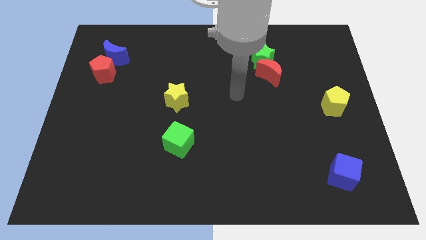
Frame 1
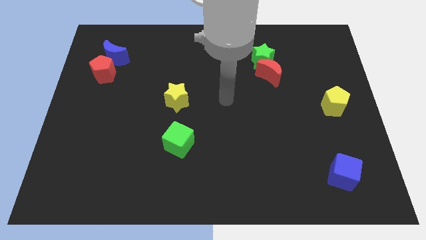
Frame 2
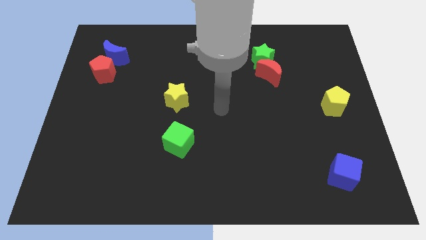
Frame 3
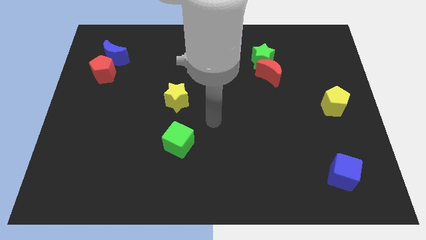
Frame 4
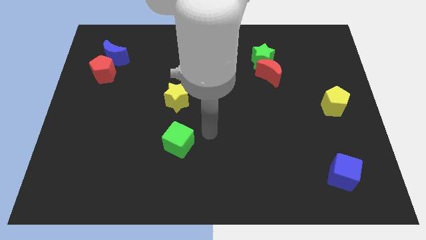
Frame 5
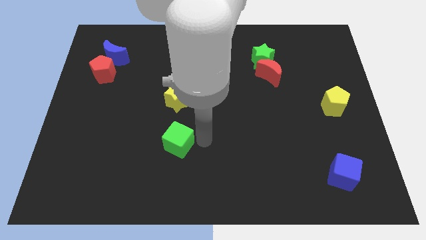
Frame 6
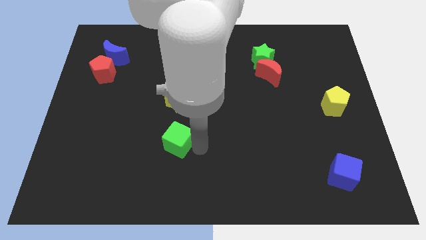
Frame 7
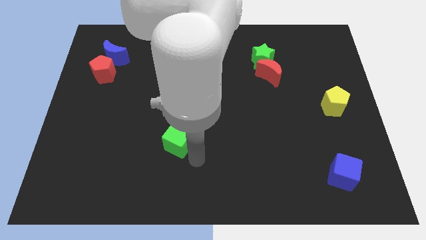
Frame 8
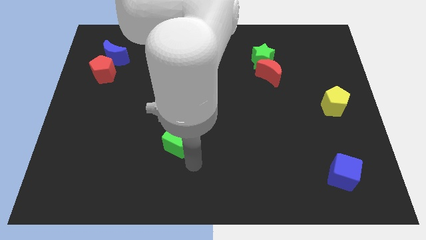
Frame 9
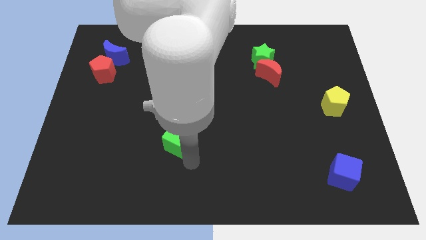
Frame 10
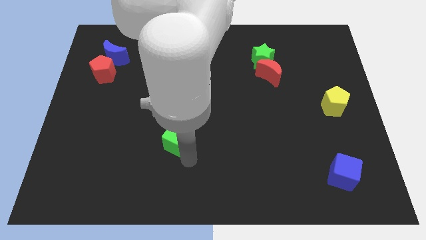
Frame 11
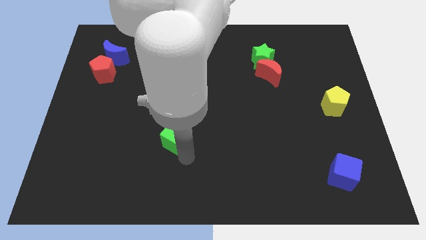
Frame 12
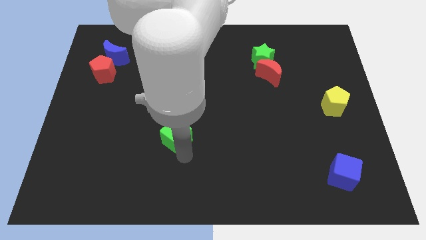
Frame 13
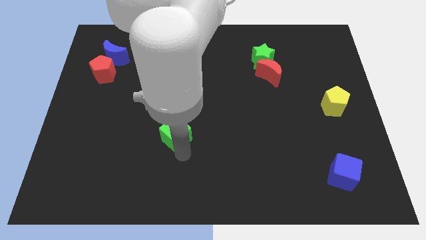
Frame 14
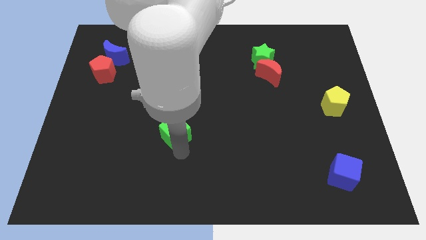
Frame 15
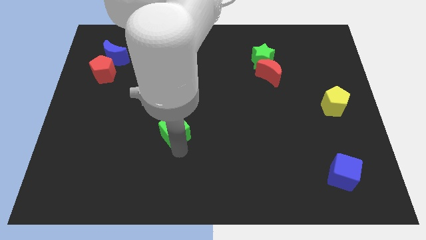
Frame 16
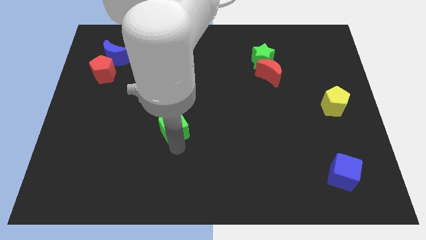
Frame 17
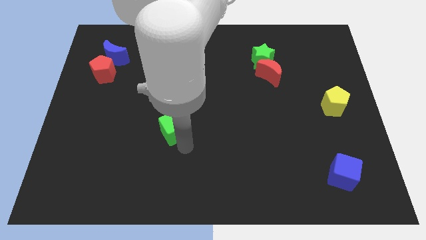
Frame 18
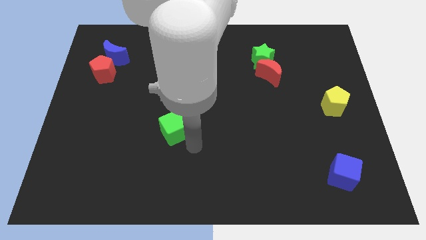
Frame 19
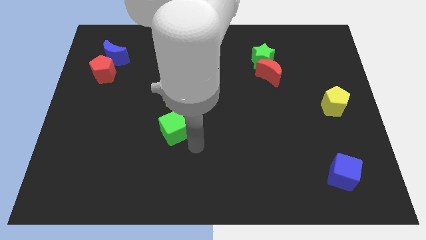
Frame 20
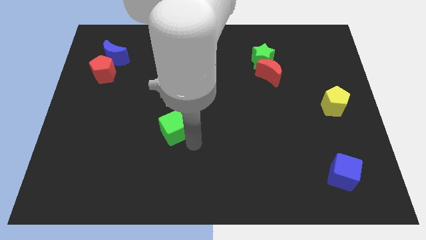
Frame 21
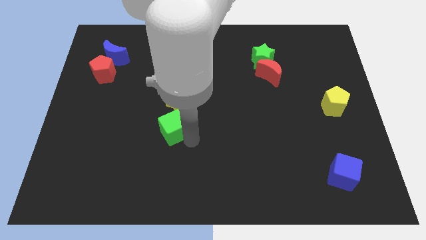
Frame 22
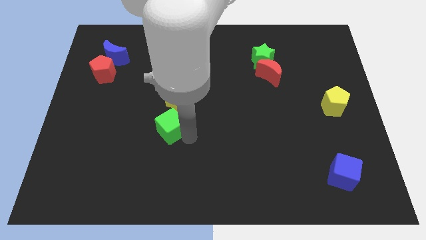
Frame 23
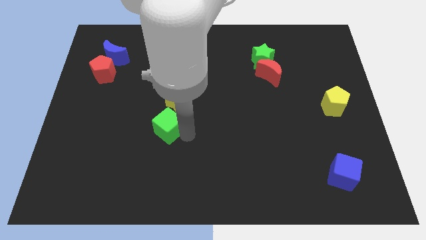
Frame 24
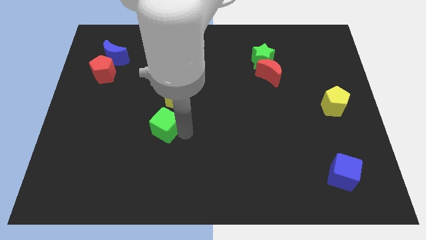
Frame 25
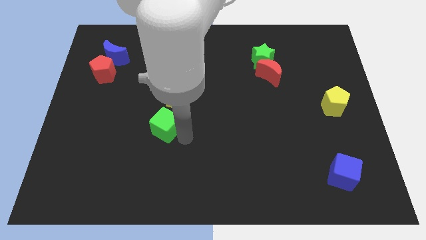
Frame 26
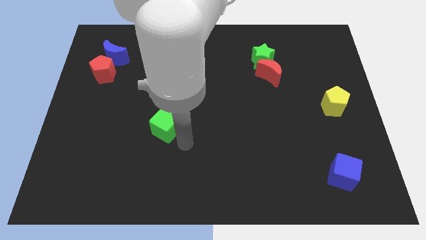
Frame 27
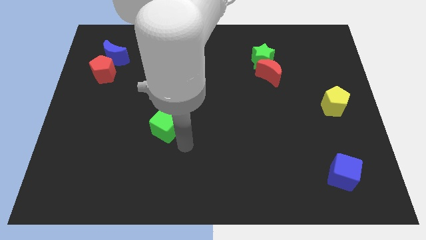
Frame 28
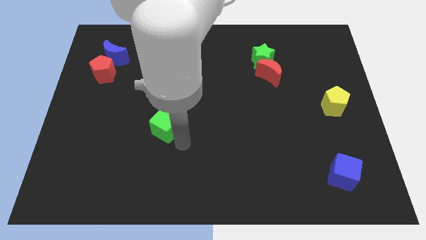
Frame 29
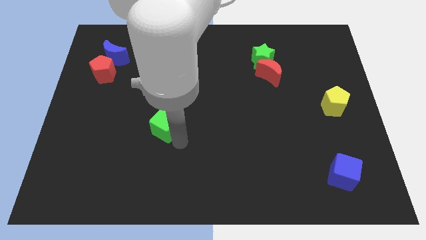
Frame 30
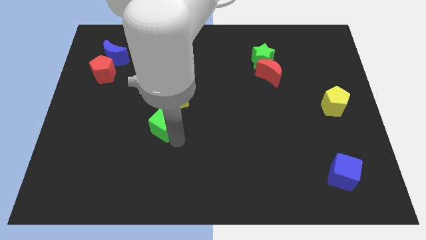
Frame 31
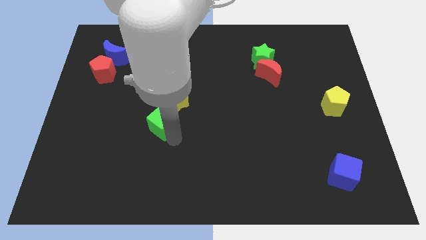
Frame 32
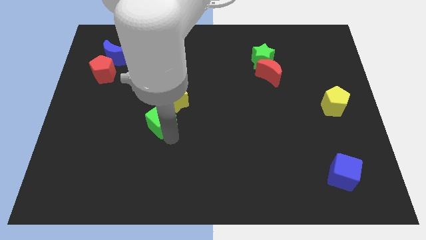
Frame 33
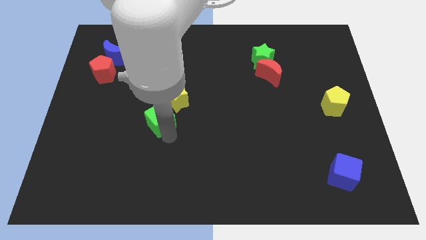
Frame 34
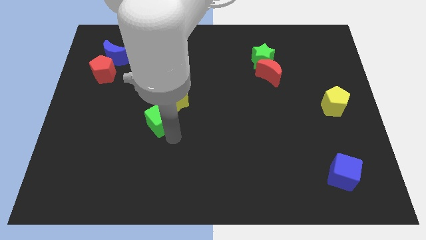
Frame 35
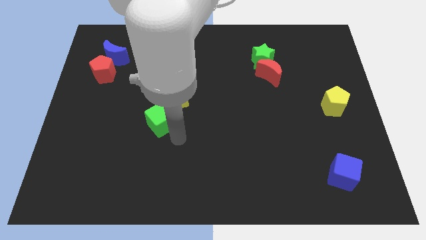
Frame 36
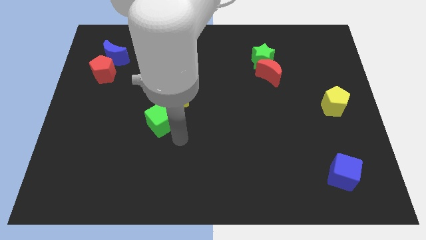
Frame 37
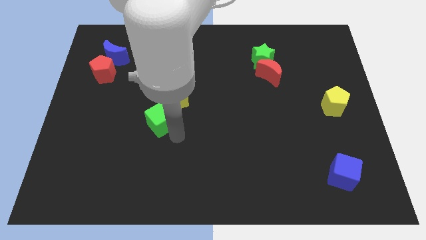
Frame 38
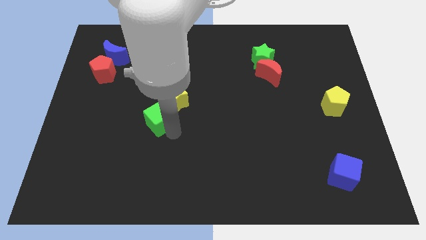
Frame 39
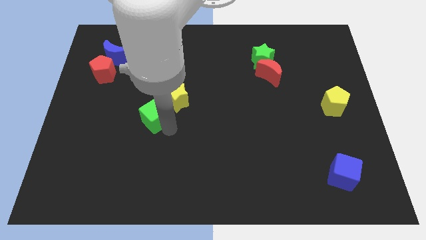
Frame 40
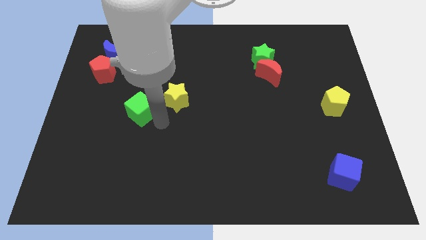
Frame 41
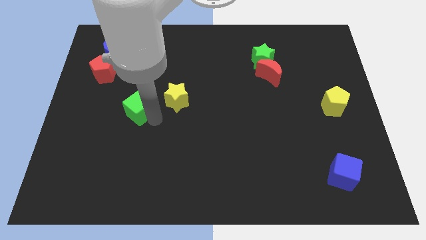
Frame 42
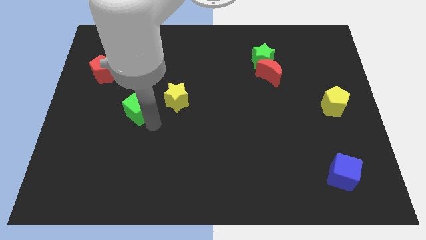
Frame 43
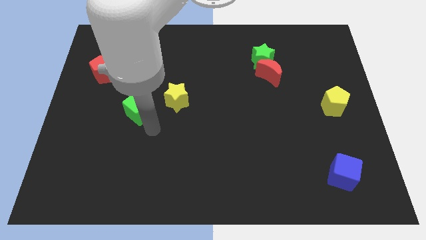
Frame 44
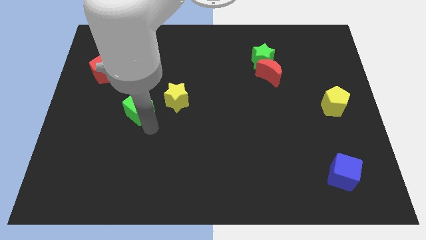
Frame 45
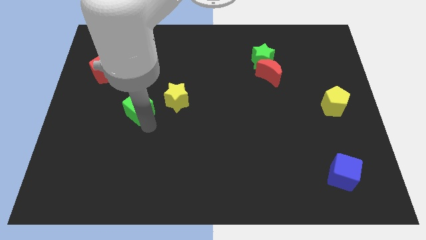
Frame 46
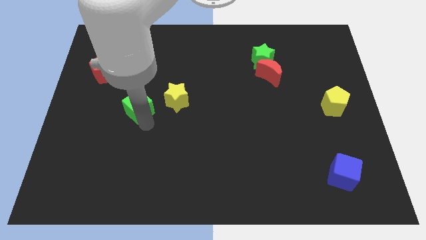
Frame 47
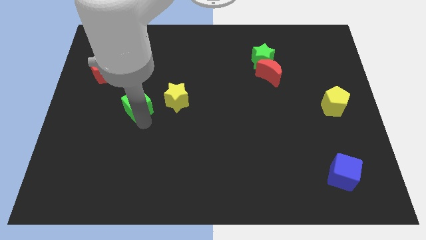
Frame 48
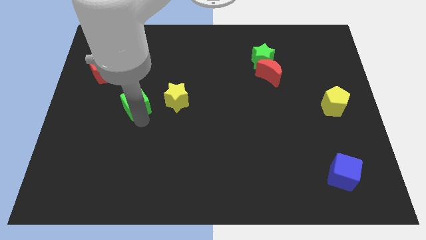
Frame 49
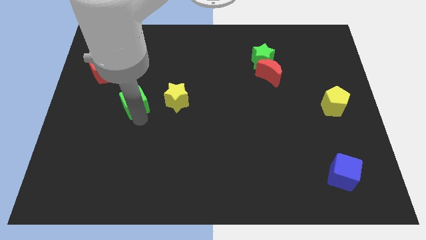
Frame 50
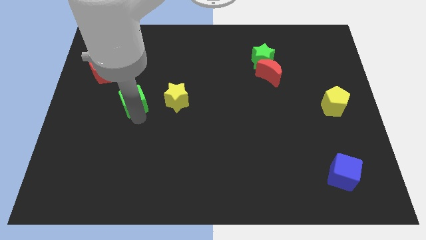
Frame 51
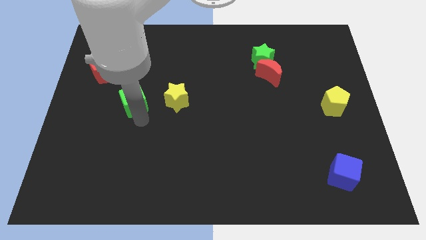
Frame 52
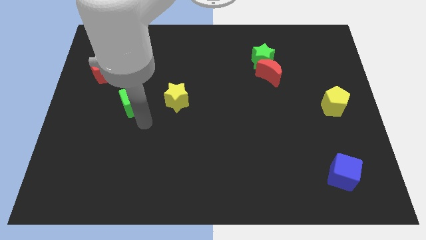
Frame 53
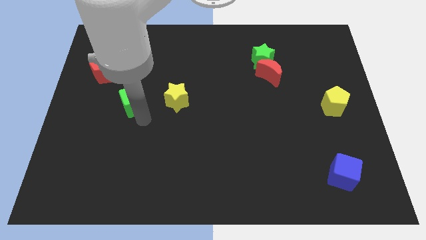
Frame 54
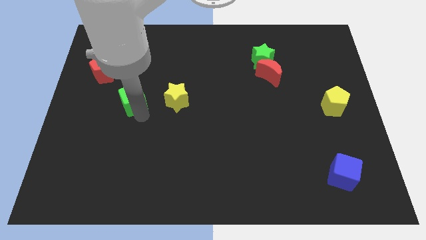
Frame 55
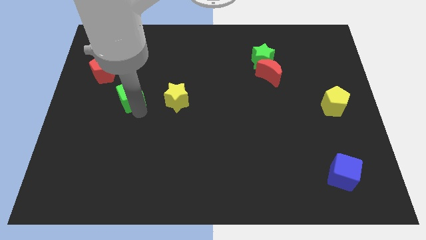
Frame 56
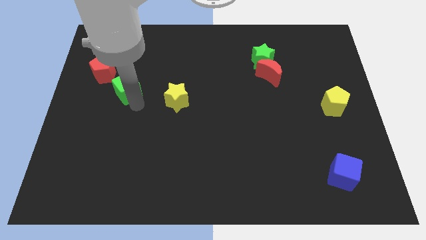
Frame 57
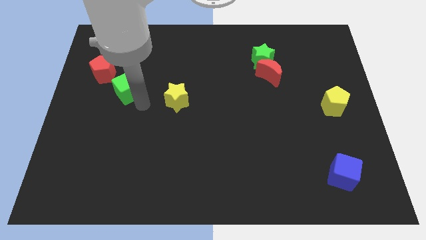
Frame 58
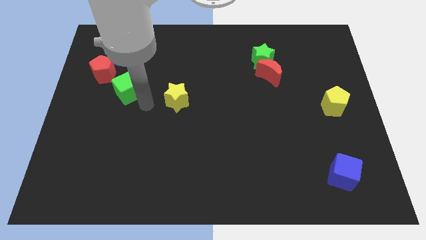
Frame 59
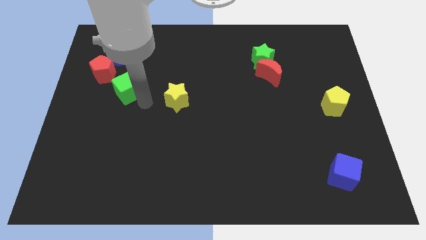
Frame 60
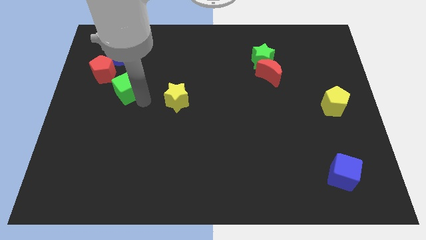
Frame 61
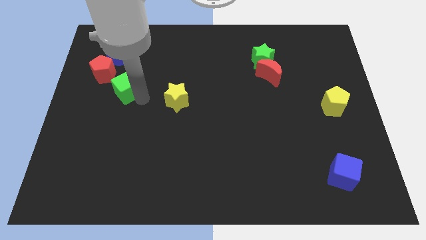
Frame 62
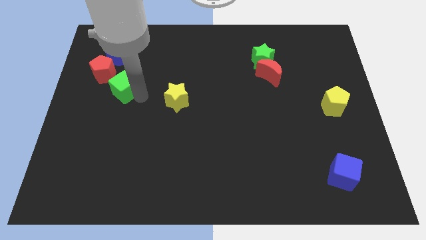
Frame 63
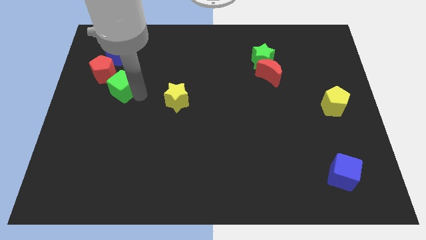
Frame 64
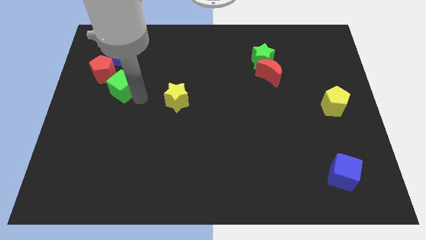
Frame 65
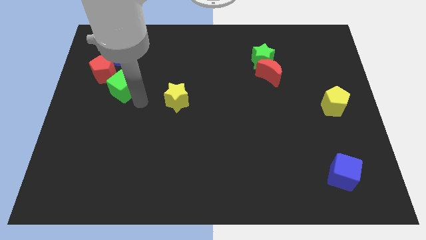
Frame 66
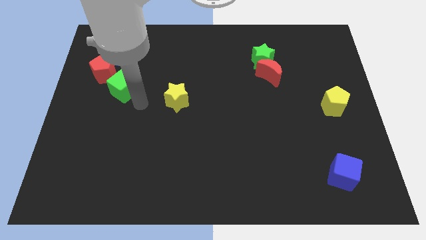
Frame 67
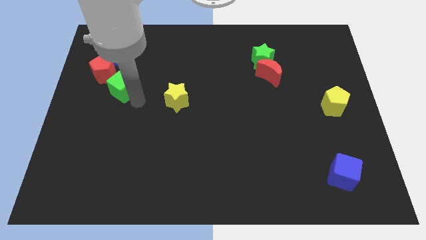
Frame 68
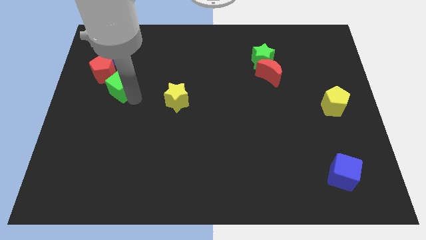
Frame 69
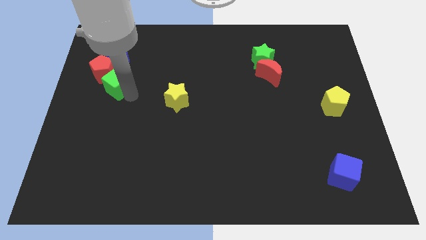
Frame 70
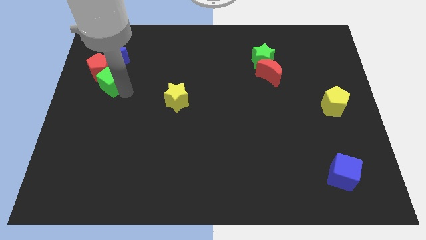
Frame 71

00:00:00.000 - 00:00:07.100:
put the green cube close to the red pentagon
